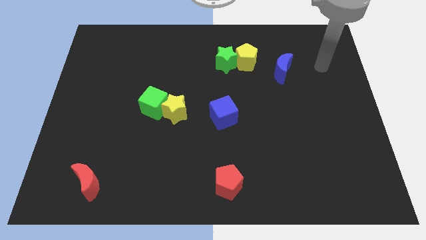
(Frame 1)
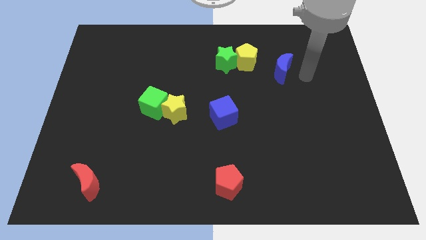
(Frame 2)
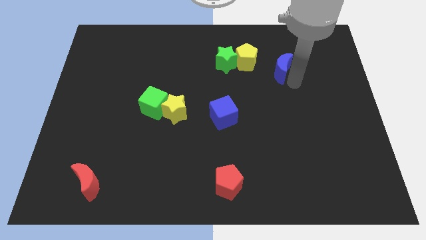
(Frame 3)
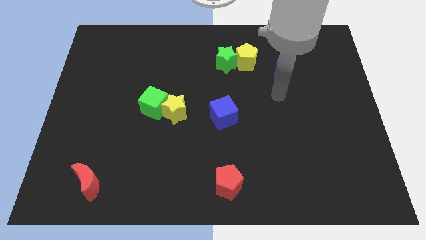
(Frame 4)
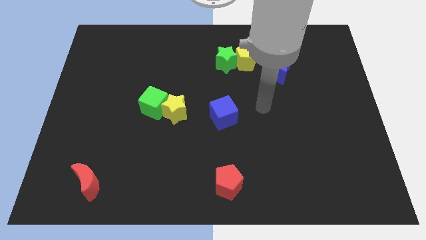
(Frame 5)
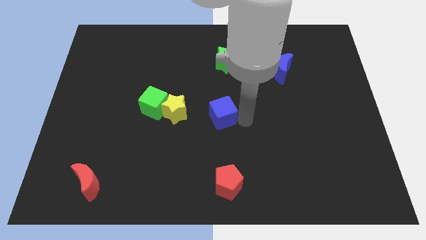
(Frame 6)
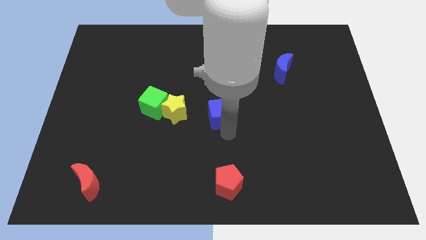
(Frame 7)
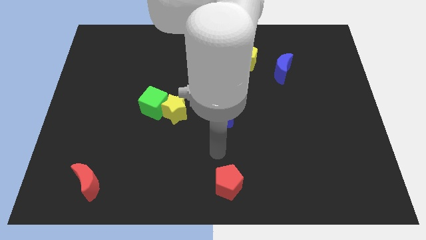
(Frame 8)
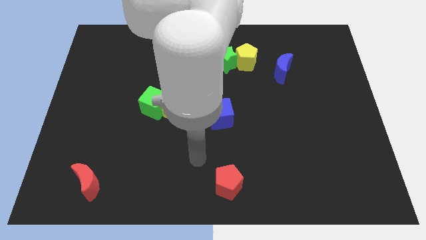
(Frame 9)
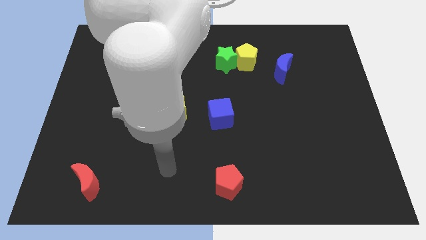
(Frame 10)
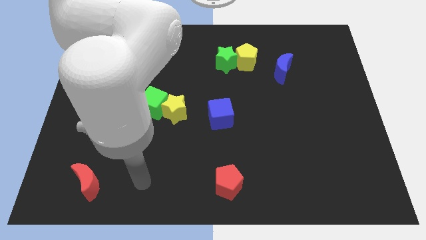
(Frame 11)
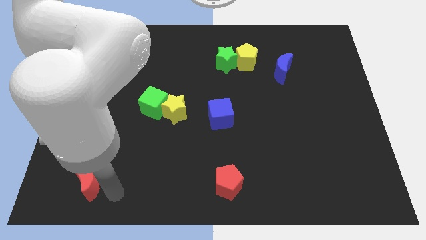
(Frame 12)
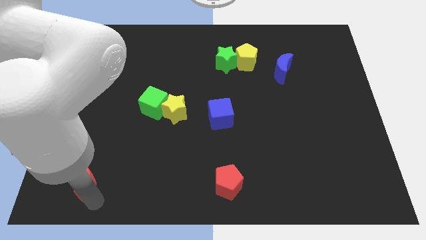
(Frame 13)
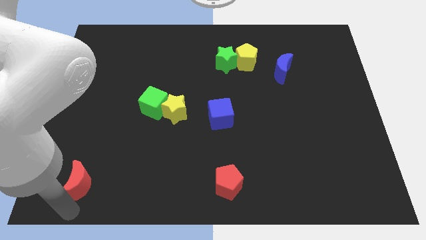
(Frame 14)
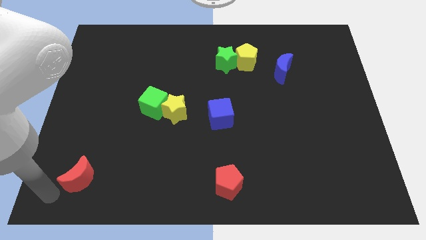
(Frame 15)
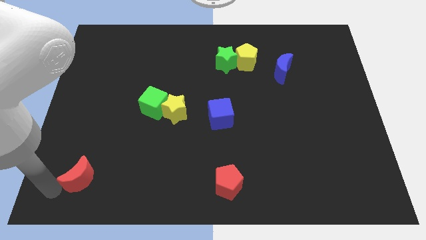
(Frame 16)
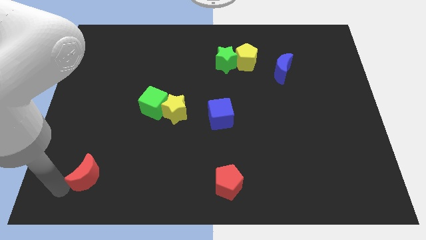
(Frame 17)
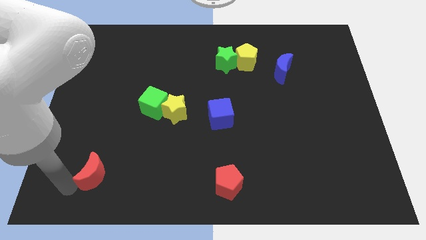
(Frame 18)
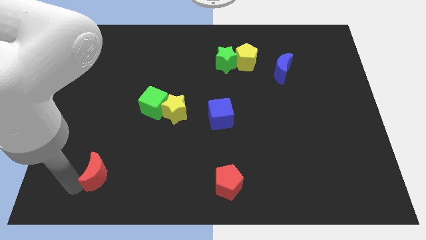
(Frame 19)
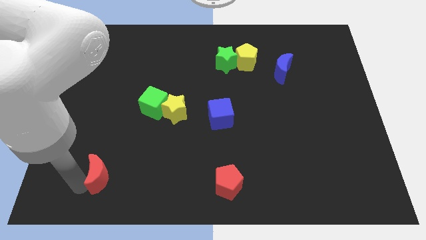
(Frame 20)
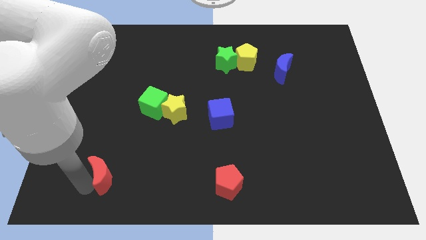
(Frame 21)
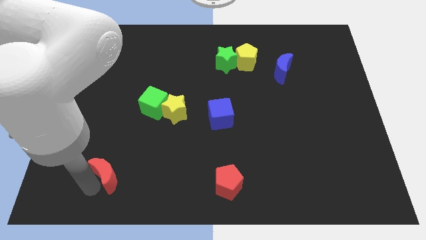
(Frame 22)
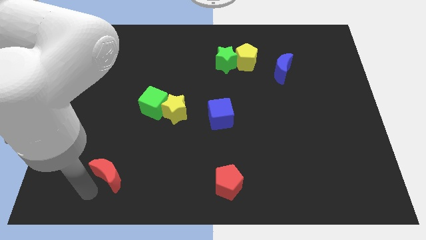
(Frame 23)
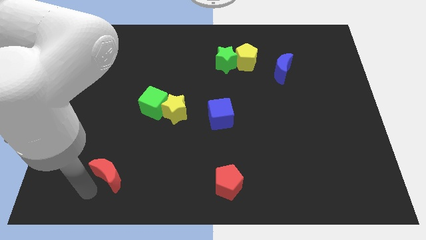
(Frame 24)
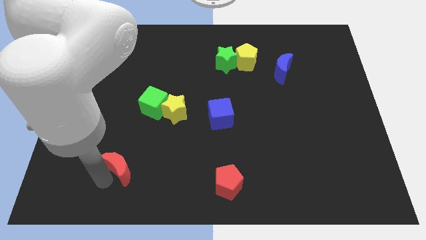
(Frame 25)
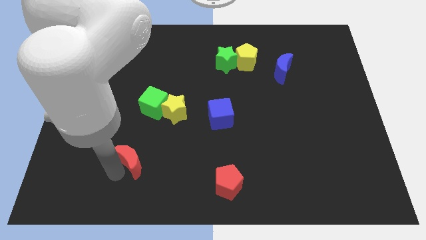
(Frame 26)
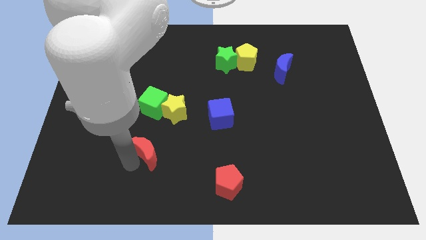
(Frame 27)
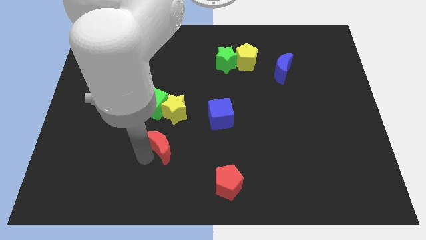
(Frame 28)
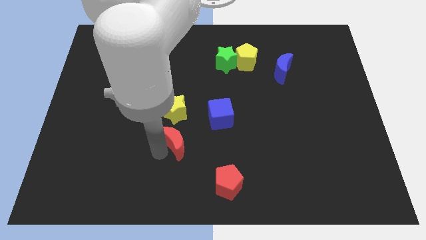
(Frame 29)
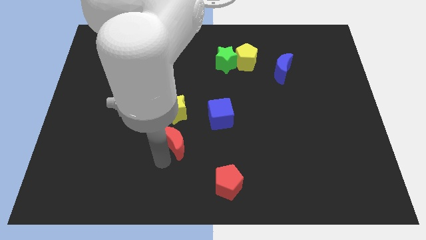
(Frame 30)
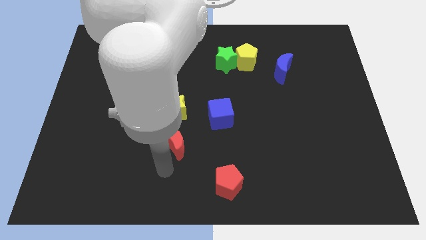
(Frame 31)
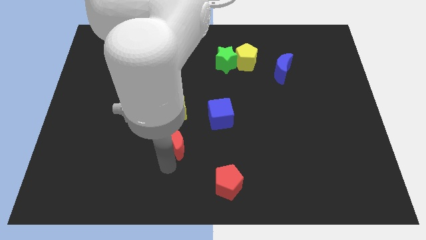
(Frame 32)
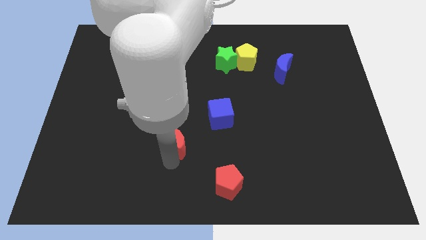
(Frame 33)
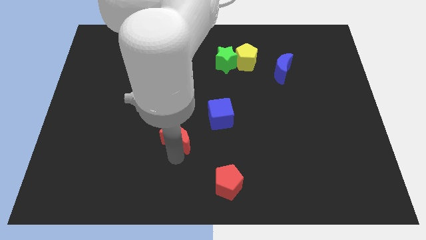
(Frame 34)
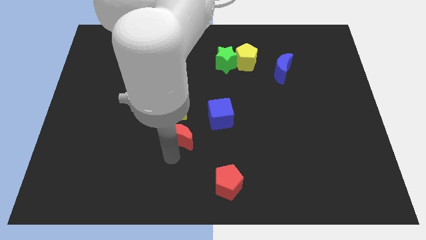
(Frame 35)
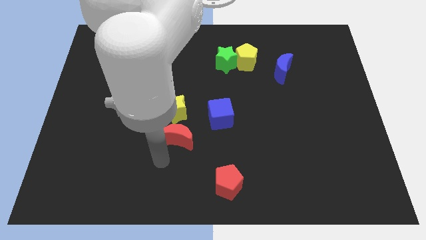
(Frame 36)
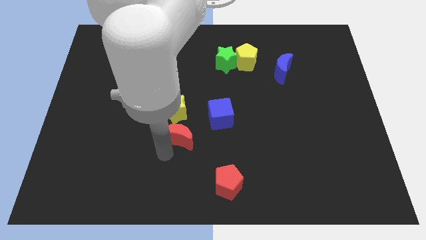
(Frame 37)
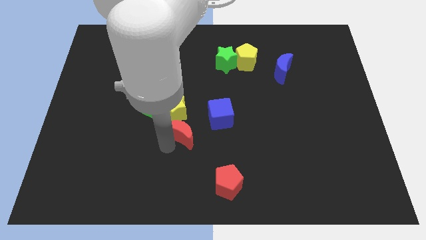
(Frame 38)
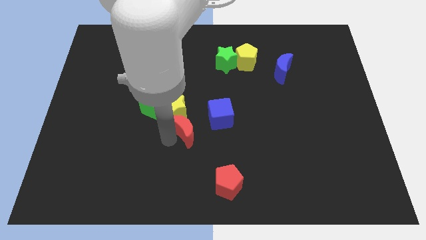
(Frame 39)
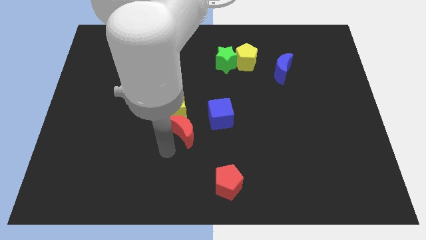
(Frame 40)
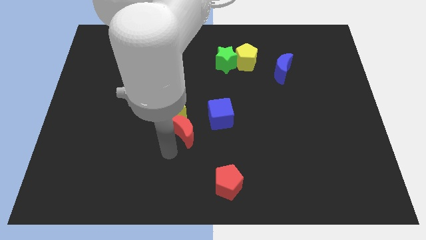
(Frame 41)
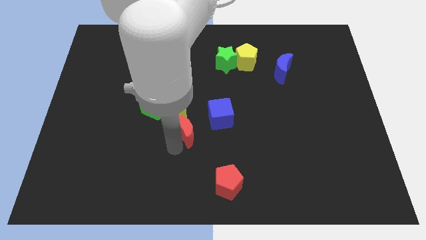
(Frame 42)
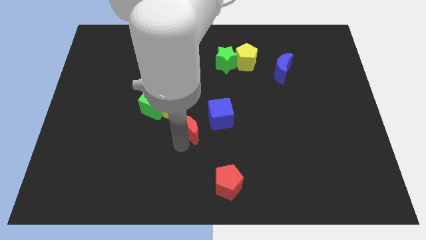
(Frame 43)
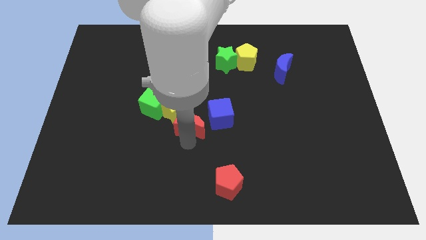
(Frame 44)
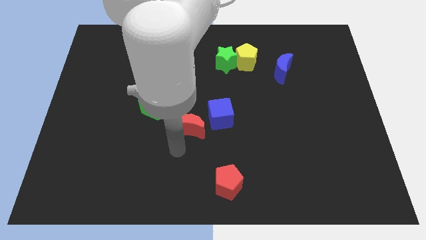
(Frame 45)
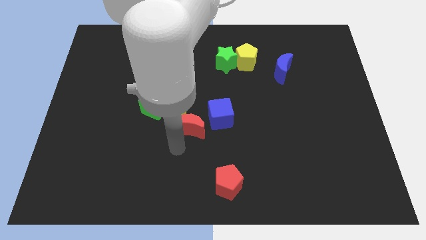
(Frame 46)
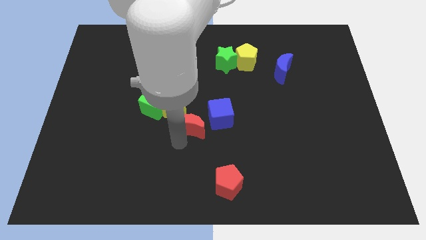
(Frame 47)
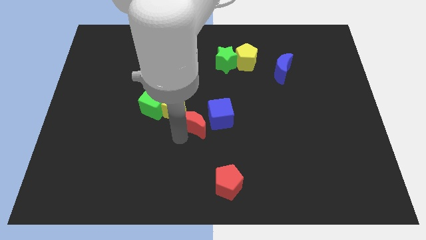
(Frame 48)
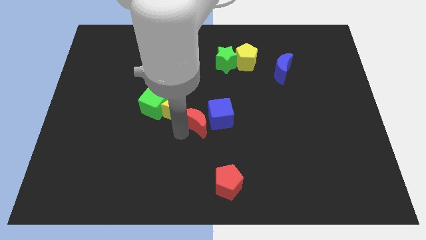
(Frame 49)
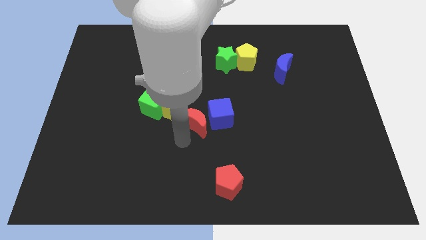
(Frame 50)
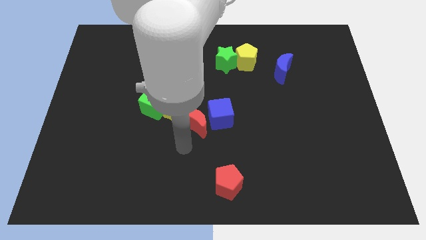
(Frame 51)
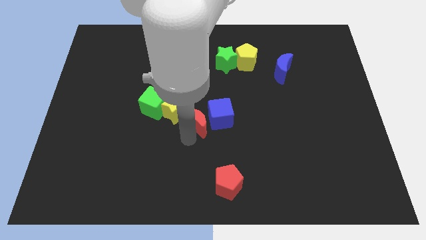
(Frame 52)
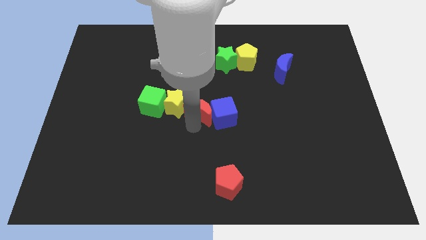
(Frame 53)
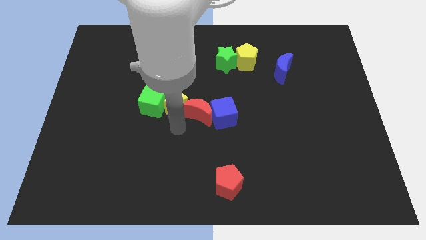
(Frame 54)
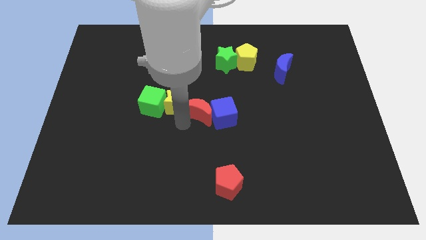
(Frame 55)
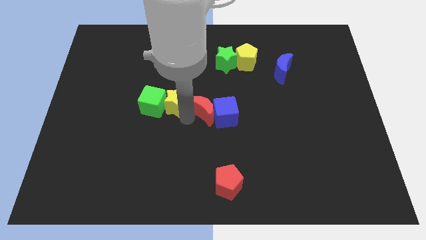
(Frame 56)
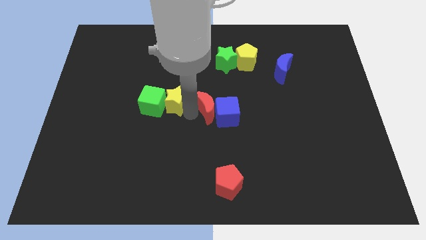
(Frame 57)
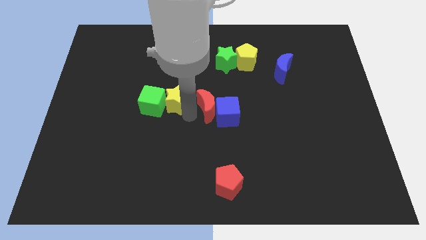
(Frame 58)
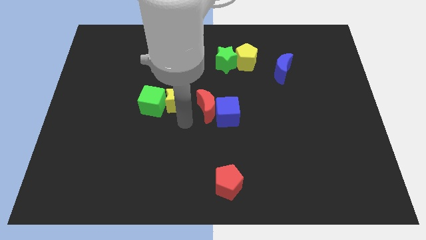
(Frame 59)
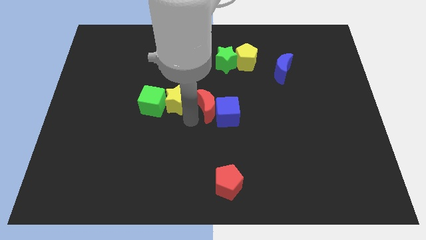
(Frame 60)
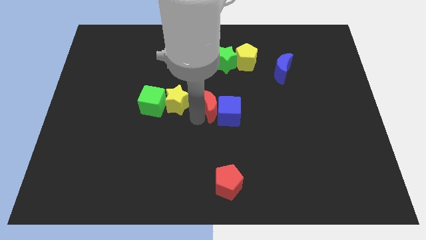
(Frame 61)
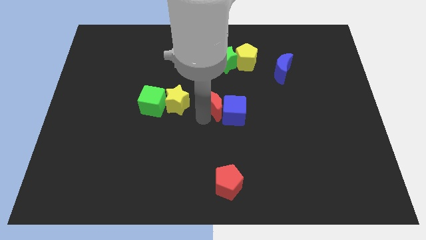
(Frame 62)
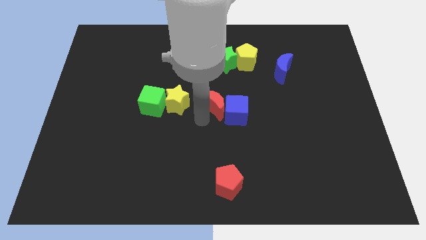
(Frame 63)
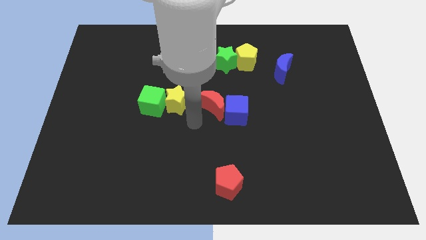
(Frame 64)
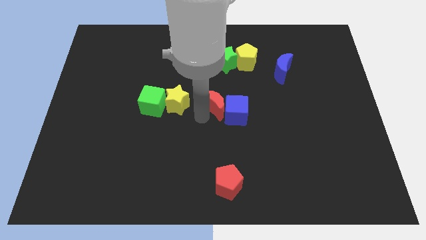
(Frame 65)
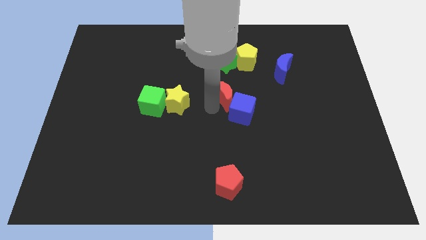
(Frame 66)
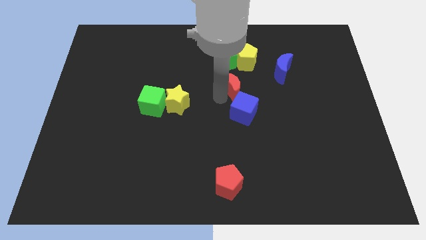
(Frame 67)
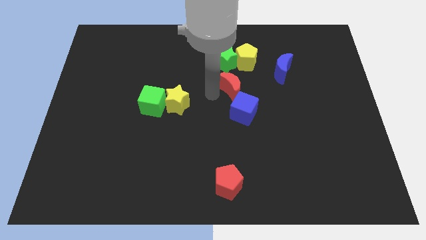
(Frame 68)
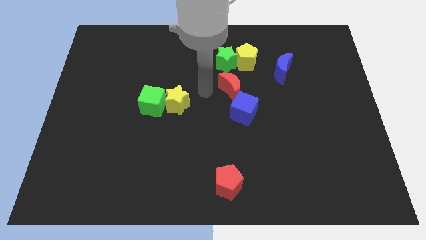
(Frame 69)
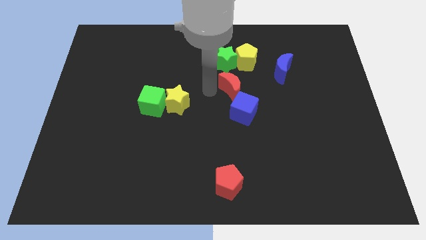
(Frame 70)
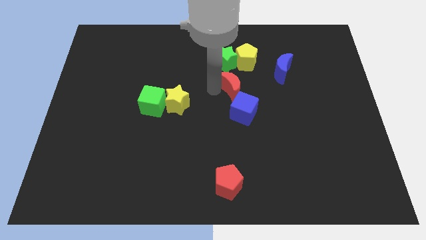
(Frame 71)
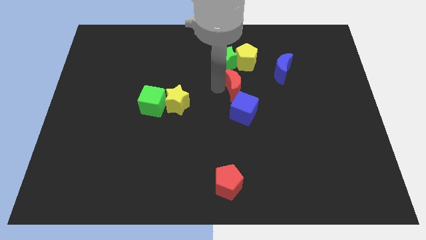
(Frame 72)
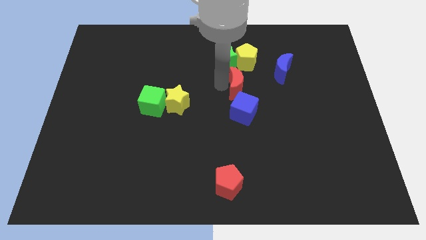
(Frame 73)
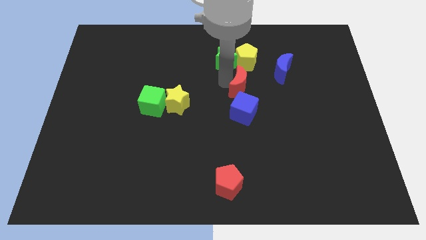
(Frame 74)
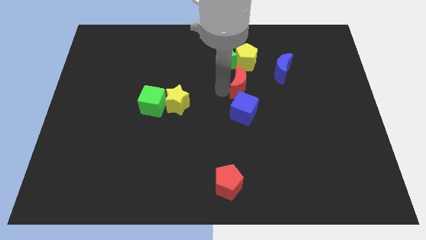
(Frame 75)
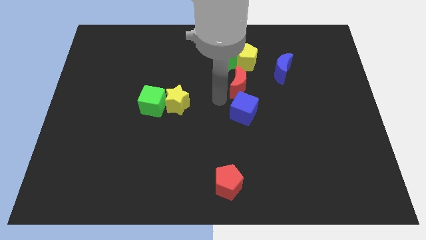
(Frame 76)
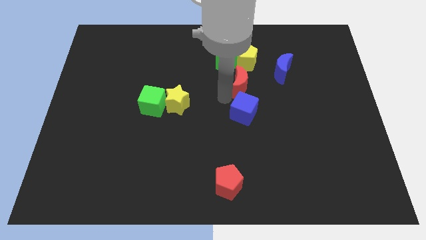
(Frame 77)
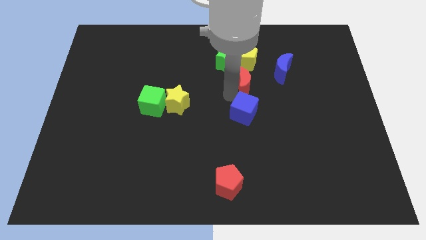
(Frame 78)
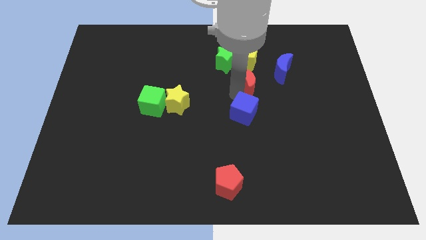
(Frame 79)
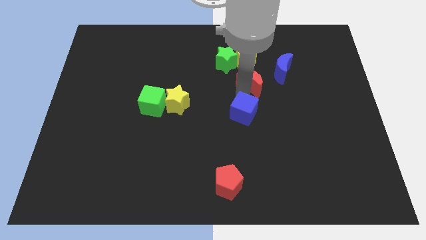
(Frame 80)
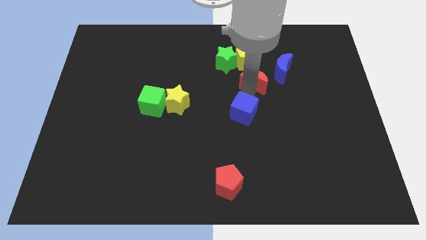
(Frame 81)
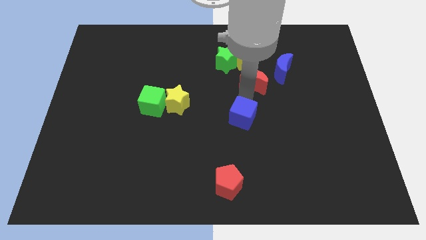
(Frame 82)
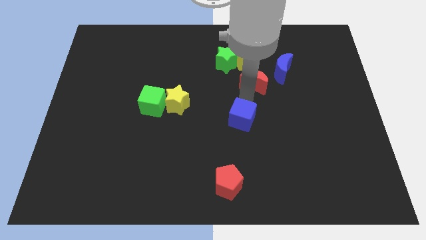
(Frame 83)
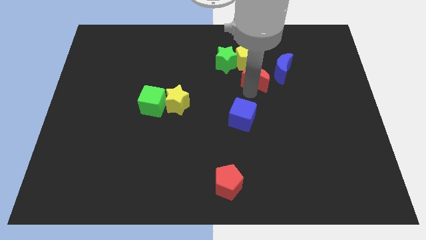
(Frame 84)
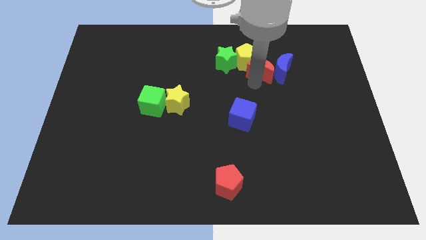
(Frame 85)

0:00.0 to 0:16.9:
slide the red moon just right of the yellow pentagon
